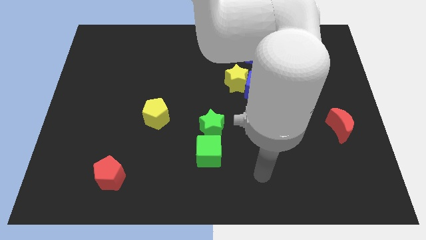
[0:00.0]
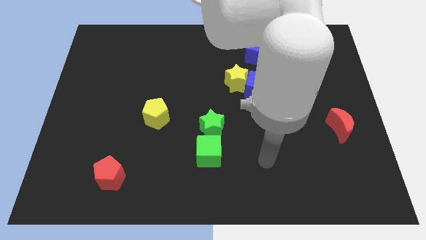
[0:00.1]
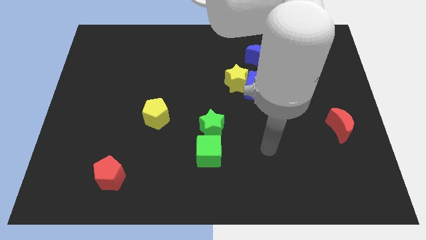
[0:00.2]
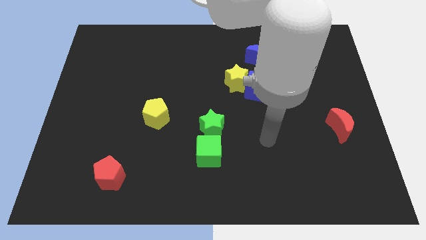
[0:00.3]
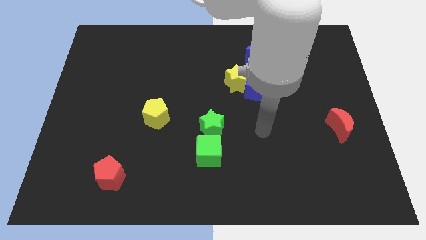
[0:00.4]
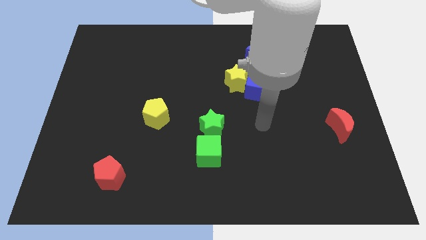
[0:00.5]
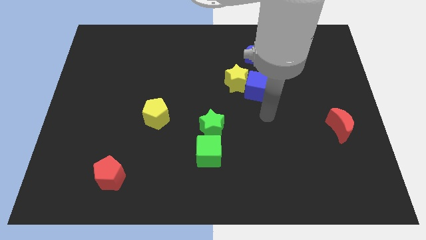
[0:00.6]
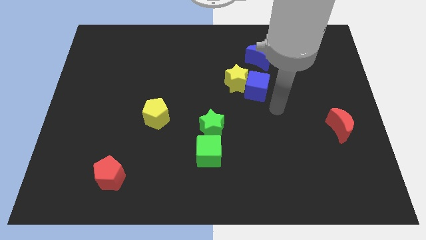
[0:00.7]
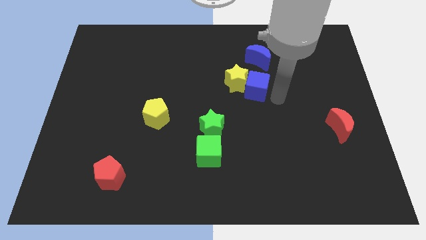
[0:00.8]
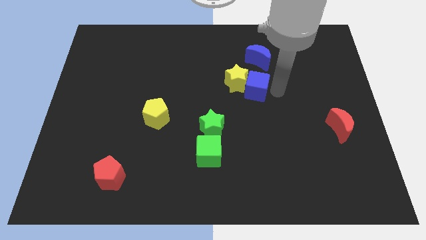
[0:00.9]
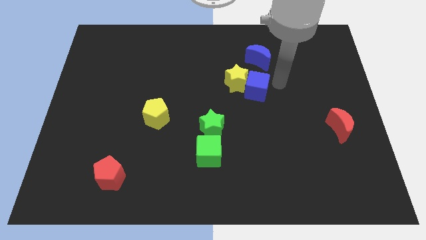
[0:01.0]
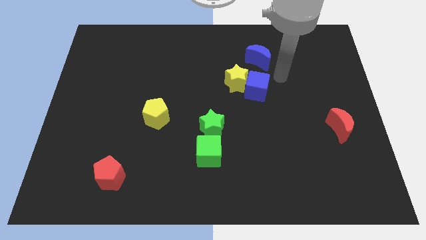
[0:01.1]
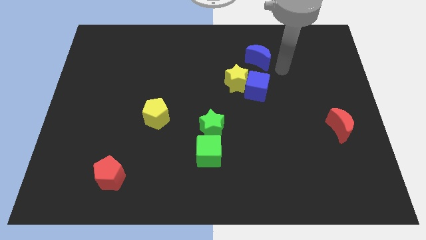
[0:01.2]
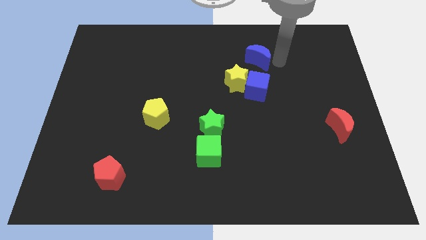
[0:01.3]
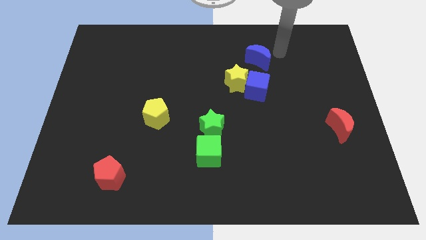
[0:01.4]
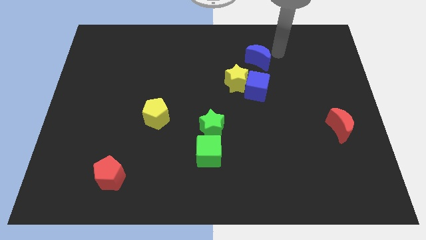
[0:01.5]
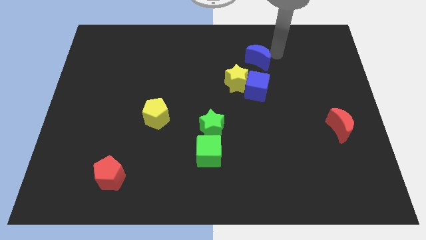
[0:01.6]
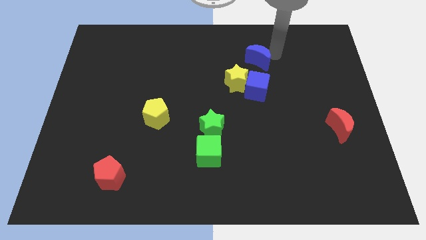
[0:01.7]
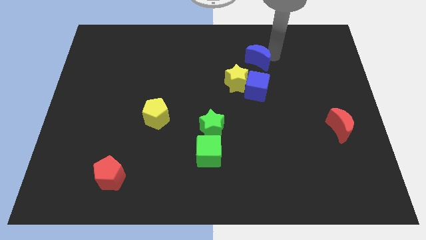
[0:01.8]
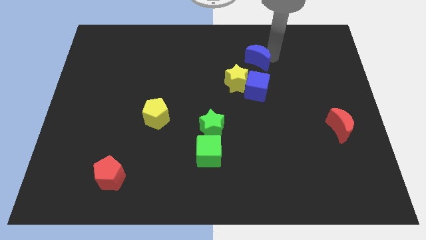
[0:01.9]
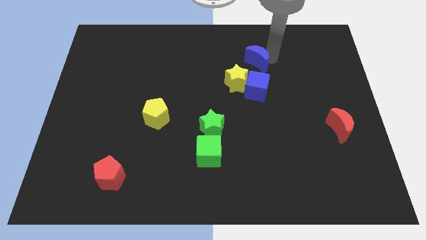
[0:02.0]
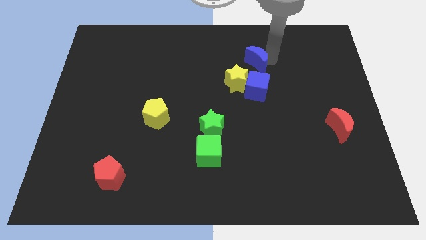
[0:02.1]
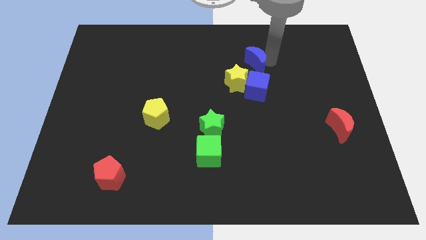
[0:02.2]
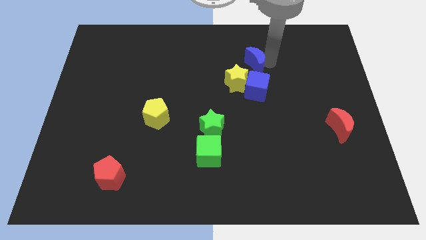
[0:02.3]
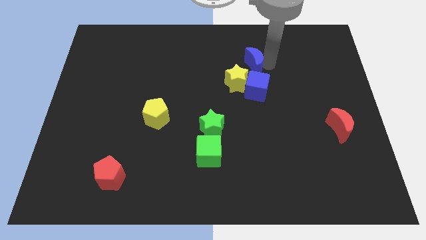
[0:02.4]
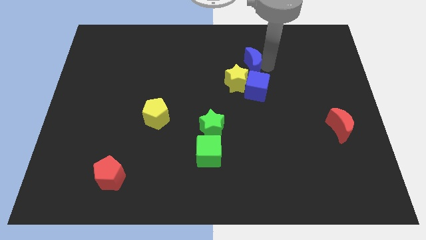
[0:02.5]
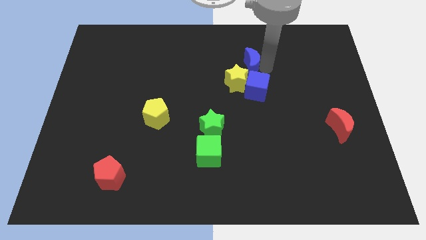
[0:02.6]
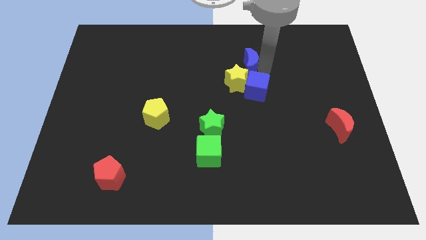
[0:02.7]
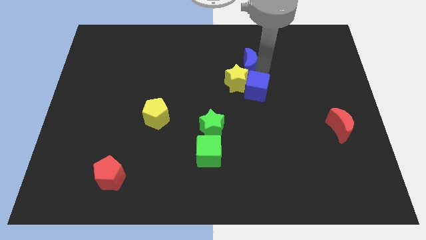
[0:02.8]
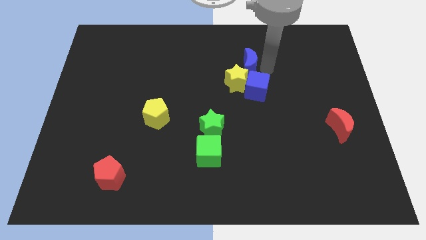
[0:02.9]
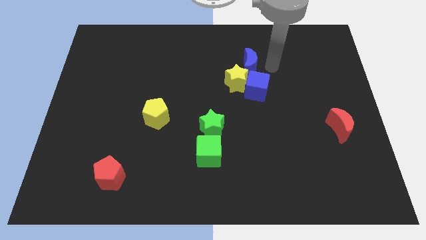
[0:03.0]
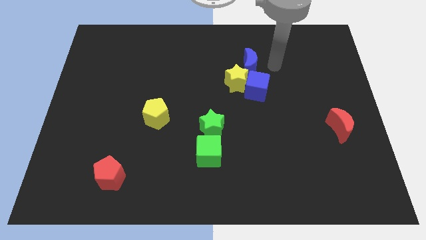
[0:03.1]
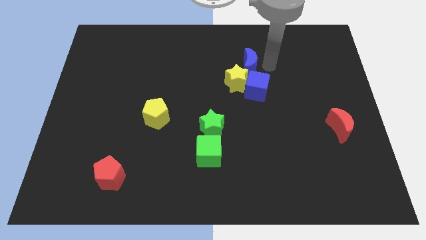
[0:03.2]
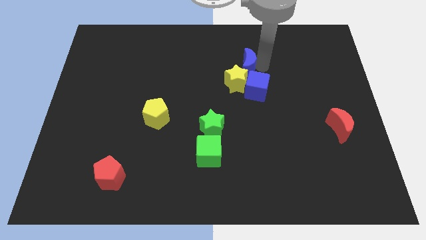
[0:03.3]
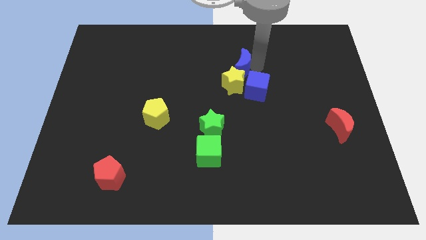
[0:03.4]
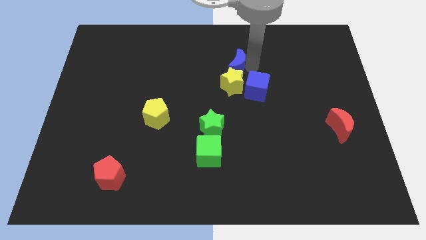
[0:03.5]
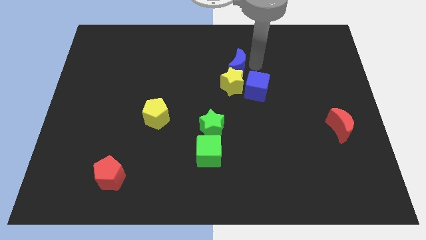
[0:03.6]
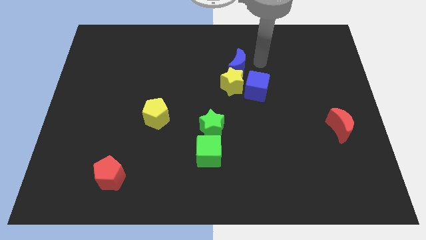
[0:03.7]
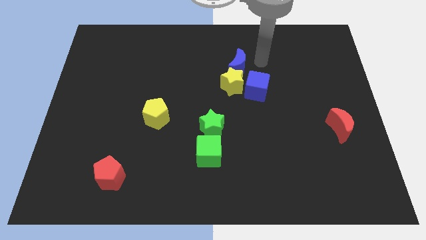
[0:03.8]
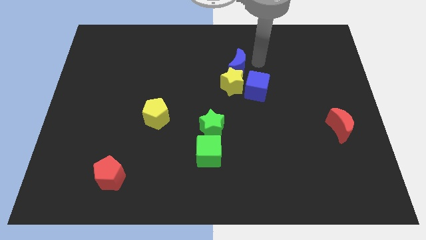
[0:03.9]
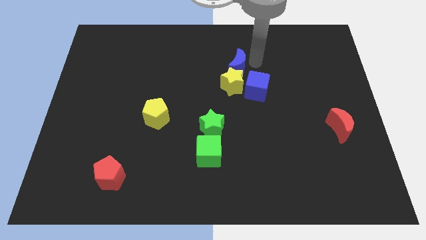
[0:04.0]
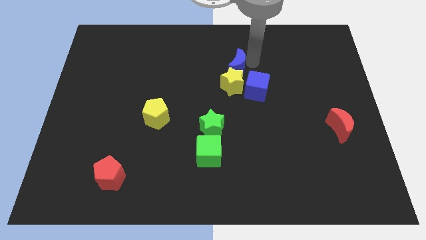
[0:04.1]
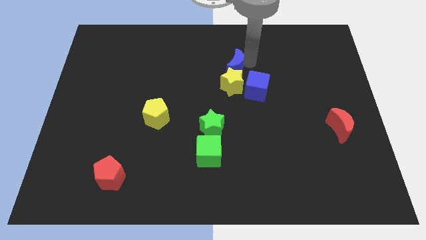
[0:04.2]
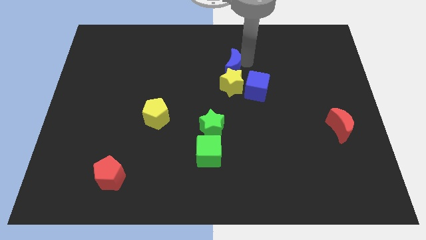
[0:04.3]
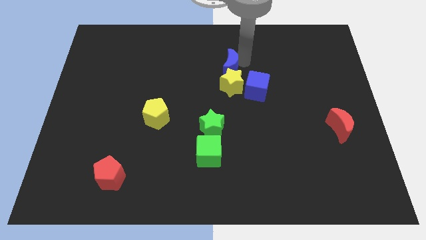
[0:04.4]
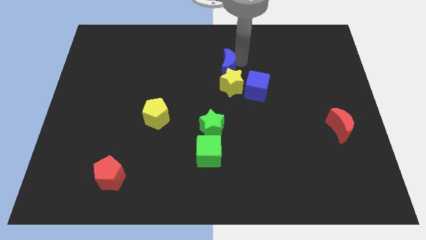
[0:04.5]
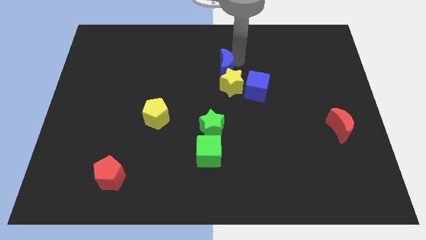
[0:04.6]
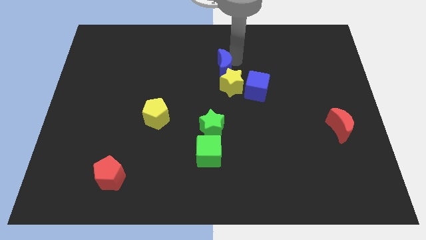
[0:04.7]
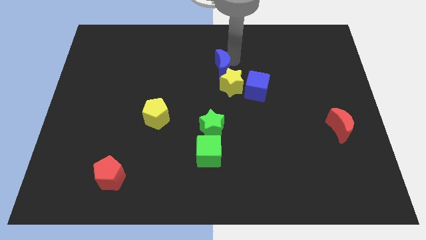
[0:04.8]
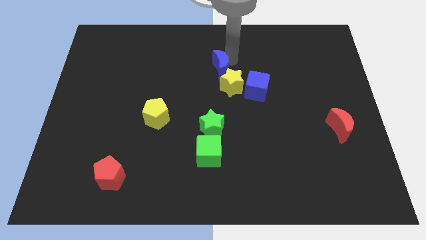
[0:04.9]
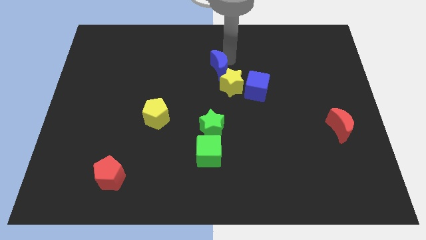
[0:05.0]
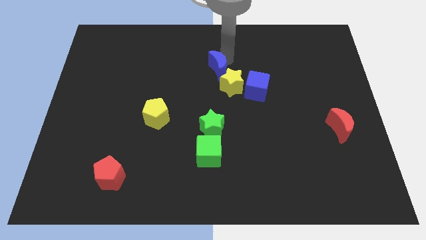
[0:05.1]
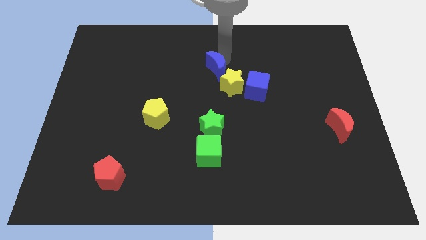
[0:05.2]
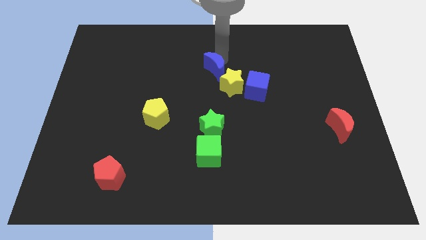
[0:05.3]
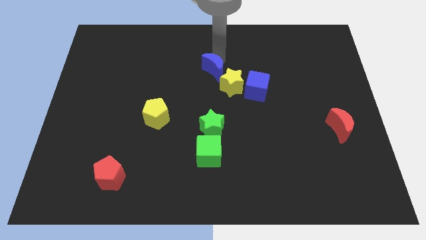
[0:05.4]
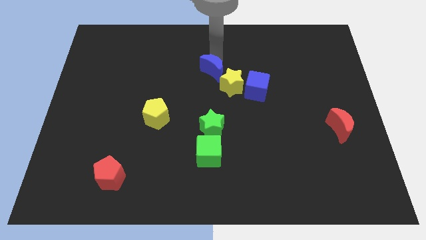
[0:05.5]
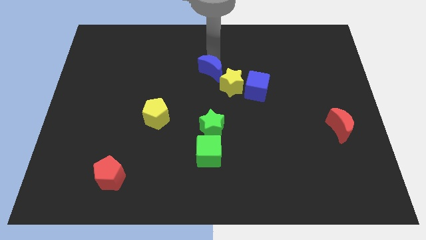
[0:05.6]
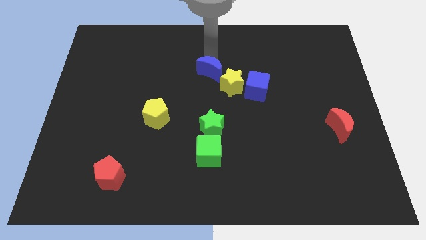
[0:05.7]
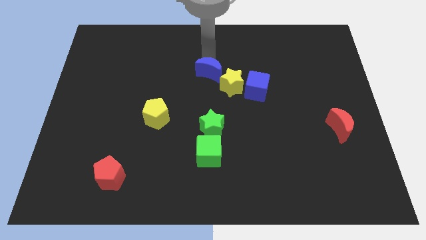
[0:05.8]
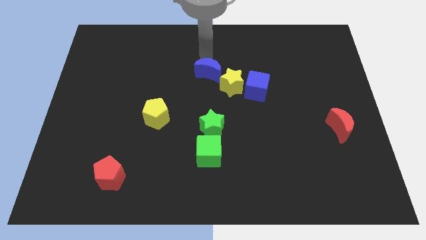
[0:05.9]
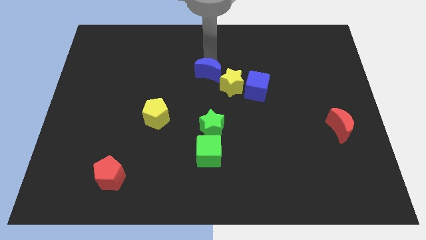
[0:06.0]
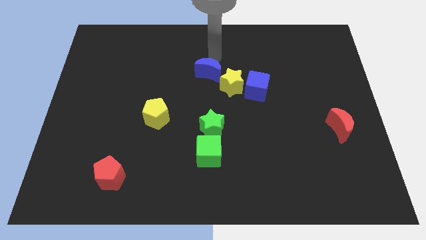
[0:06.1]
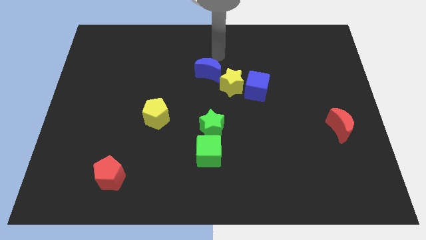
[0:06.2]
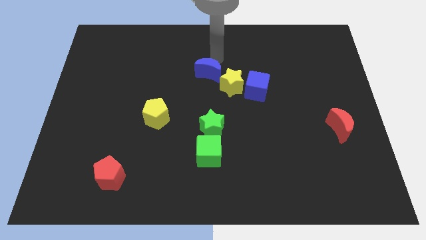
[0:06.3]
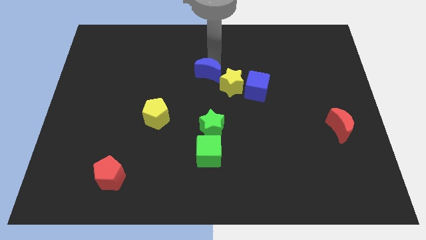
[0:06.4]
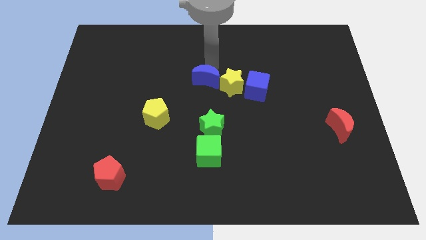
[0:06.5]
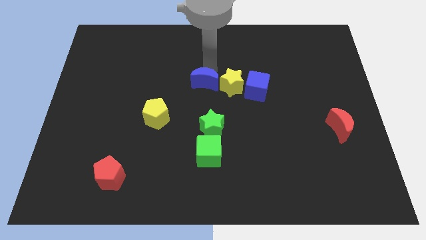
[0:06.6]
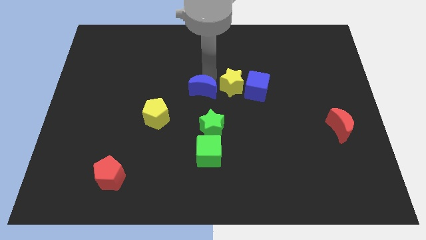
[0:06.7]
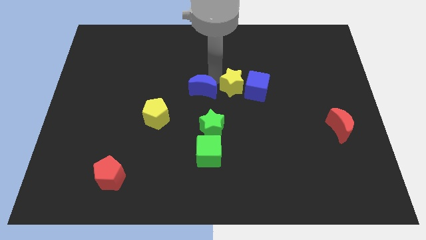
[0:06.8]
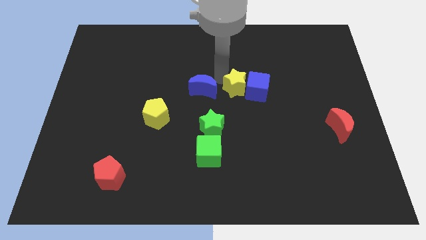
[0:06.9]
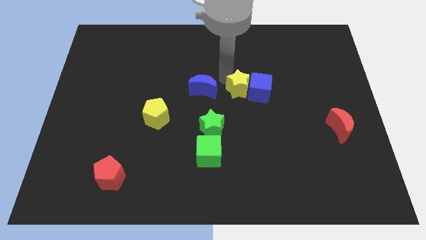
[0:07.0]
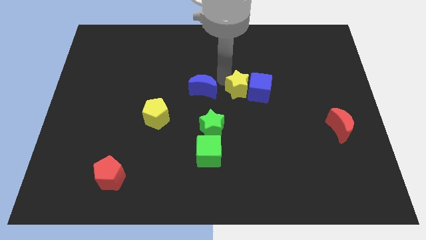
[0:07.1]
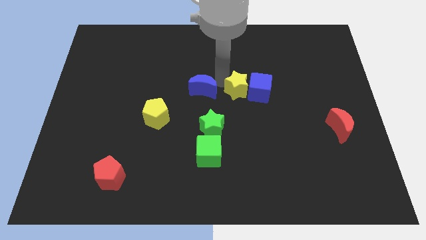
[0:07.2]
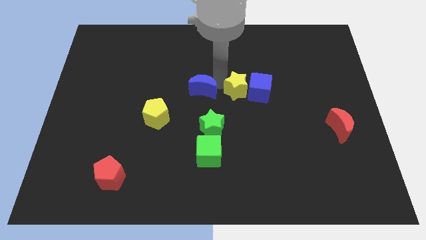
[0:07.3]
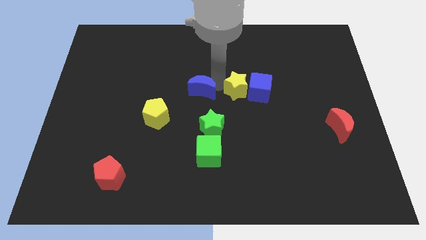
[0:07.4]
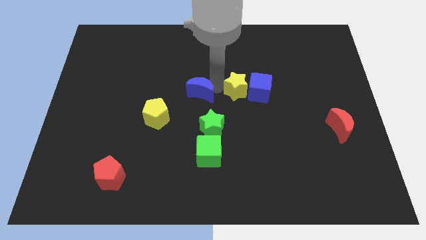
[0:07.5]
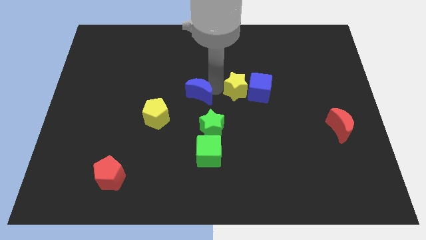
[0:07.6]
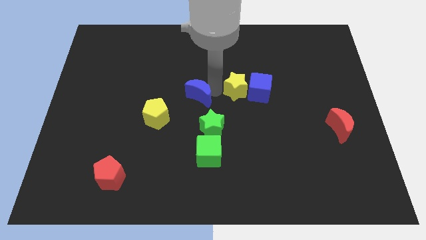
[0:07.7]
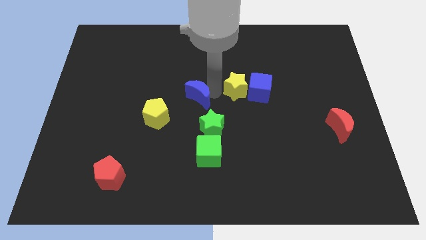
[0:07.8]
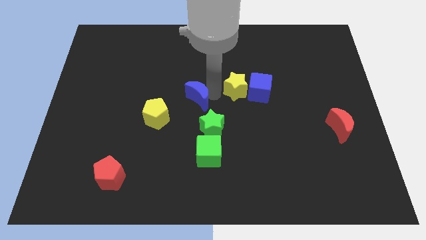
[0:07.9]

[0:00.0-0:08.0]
slide the blue moon downwards and to the left
